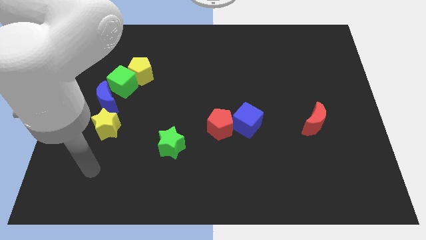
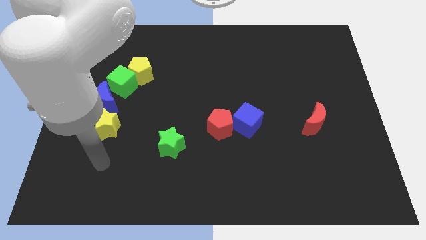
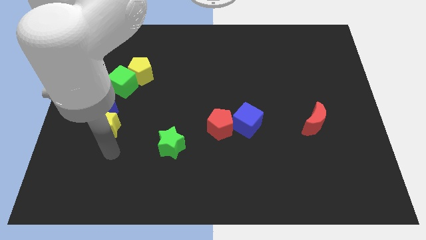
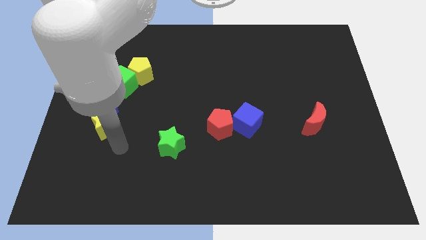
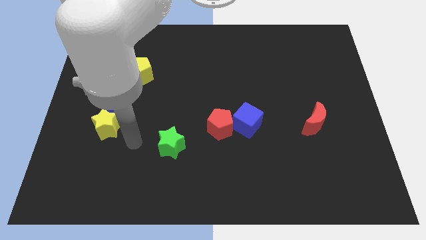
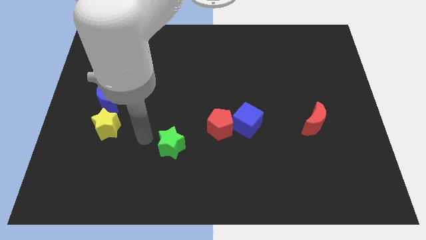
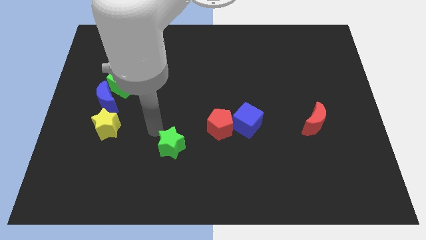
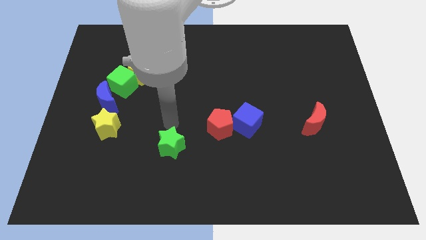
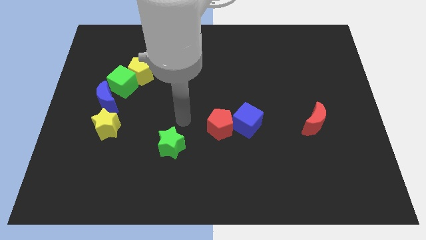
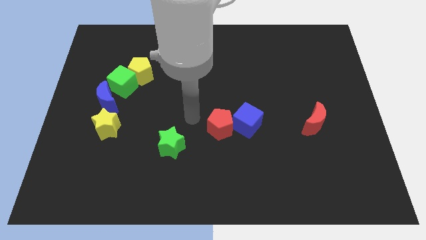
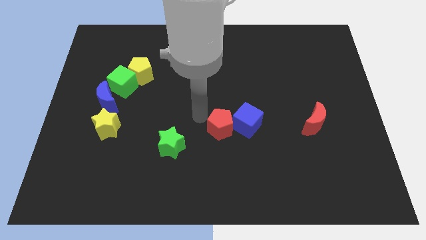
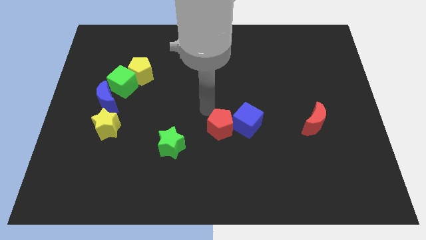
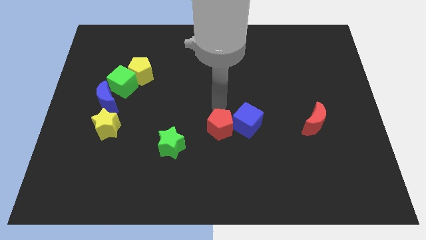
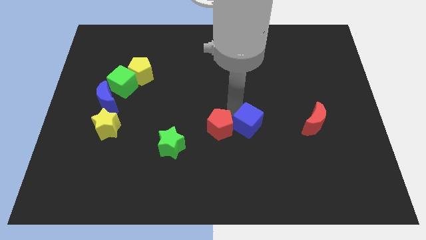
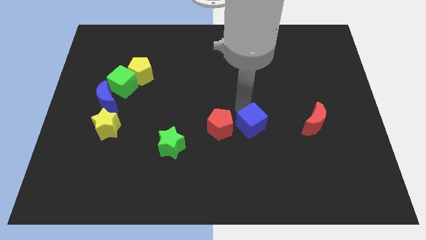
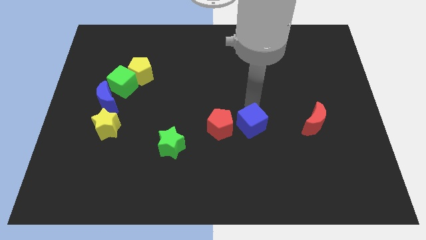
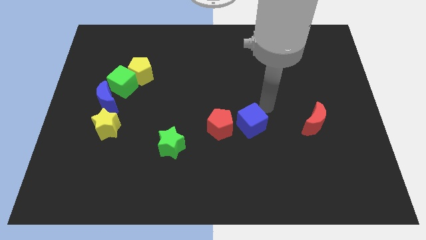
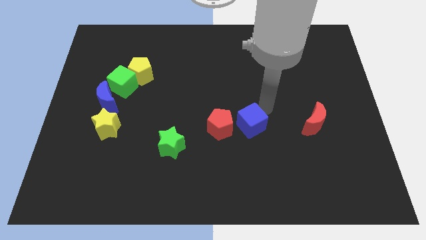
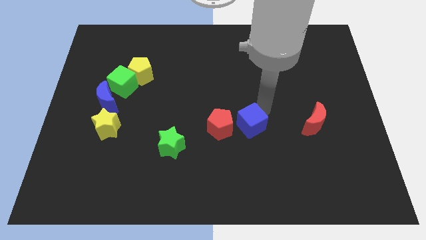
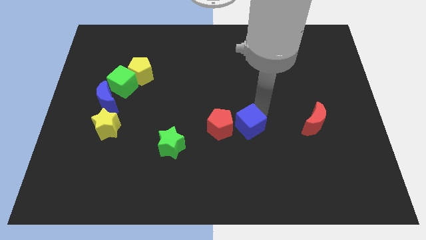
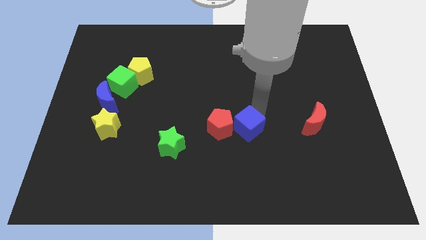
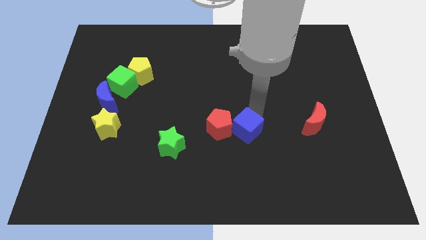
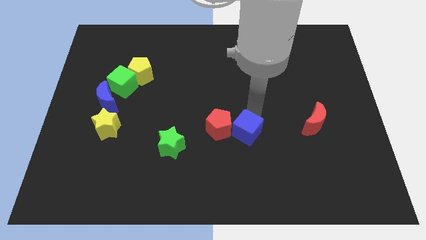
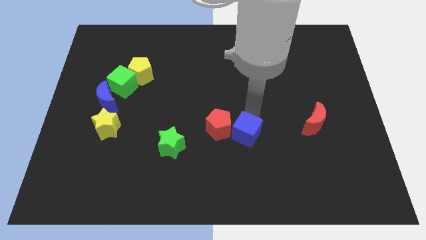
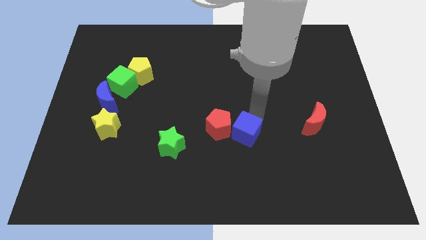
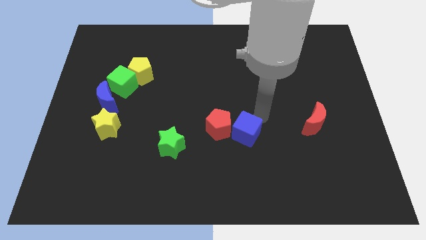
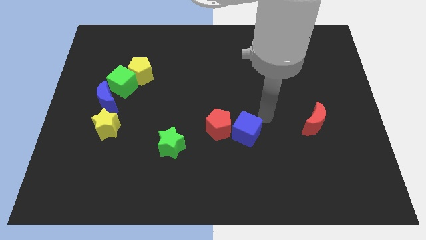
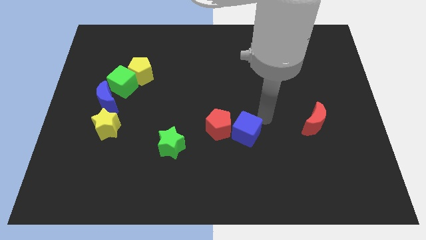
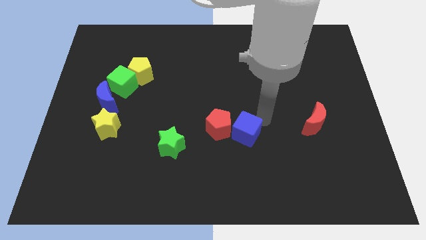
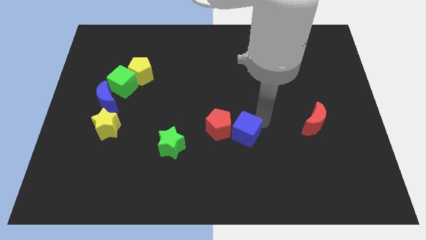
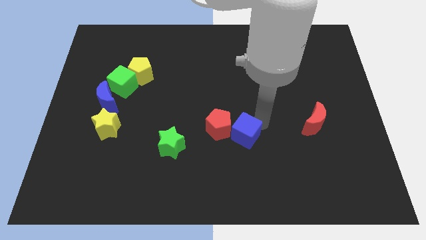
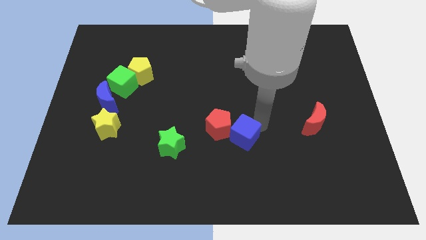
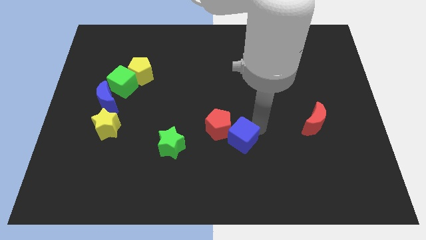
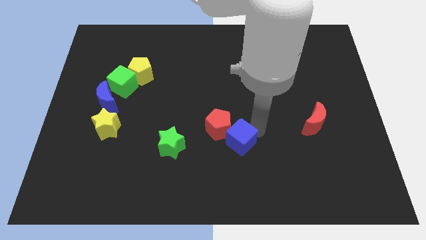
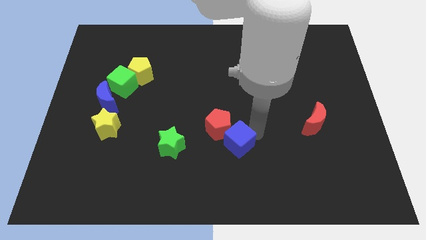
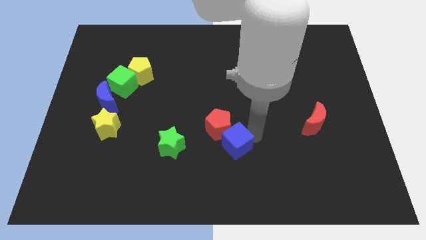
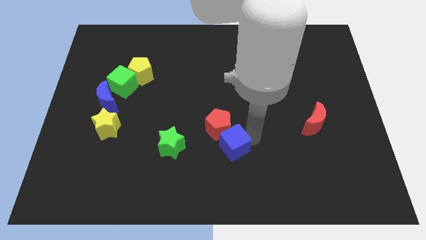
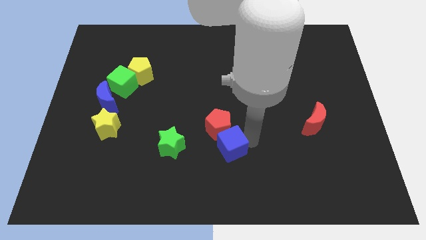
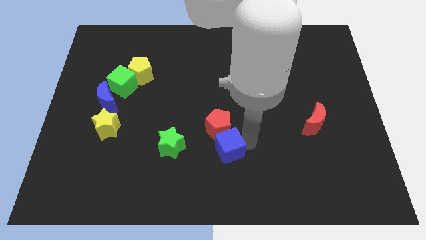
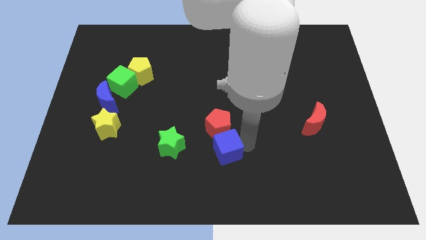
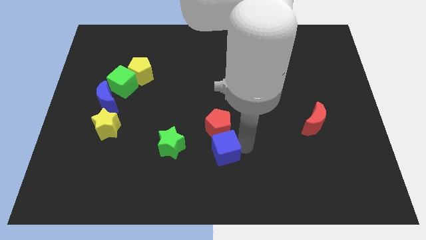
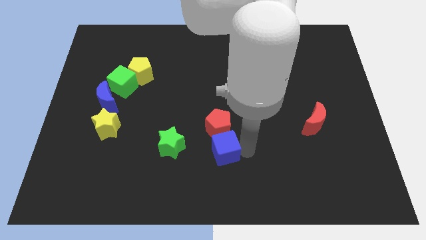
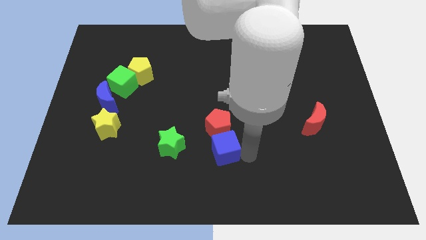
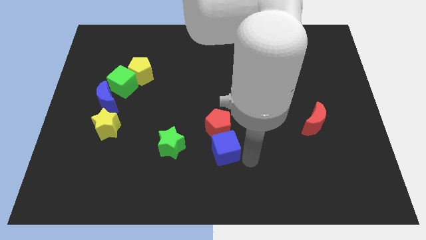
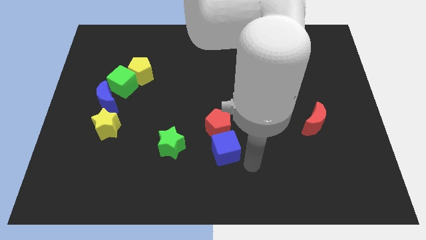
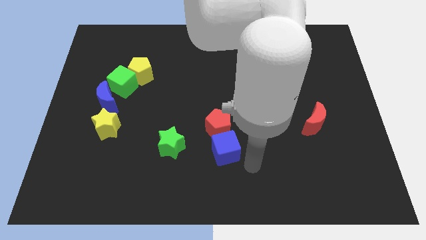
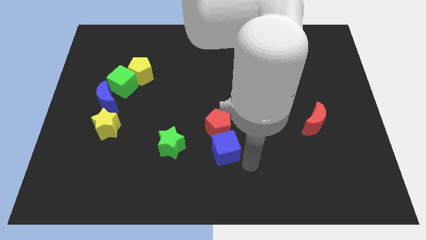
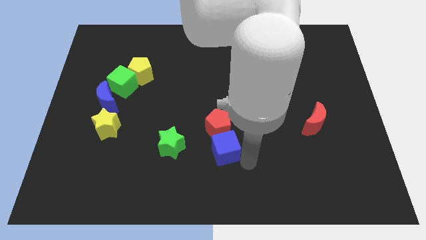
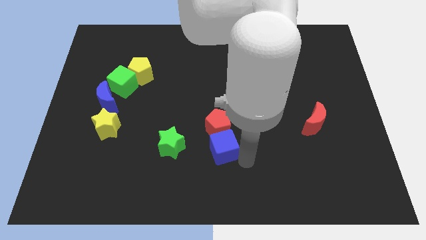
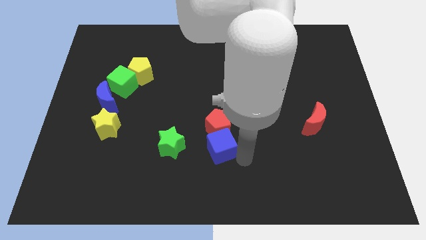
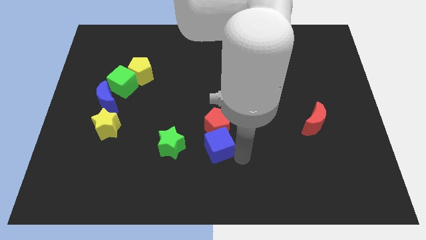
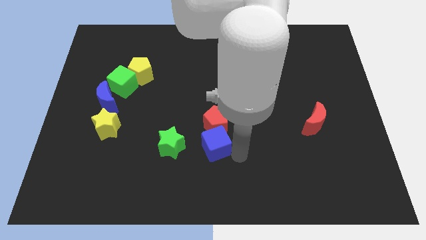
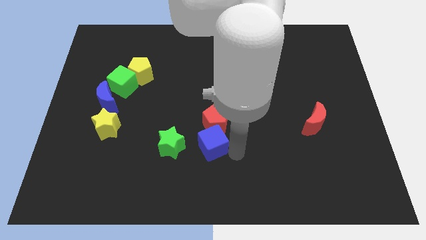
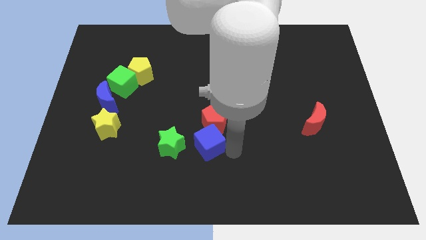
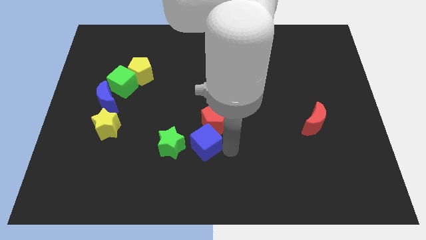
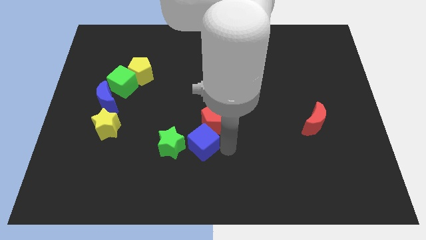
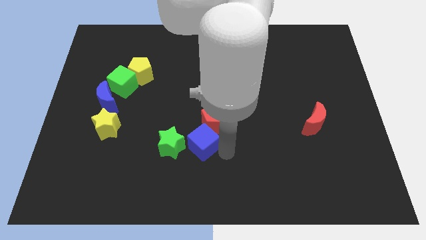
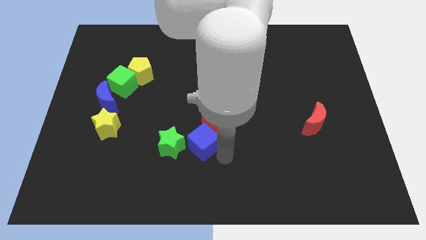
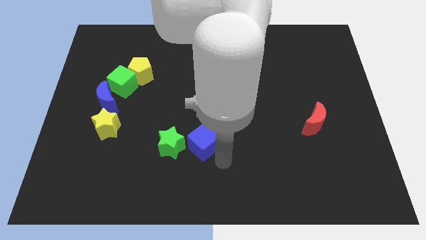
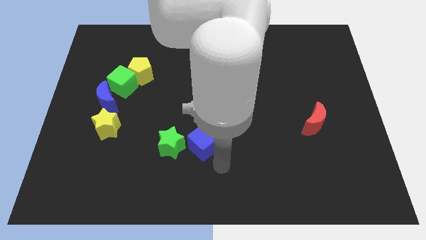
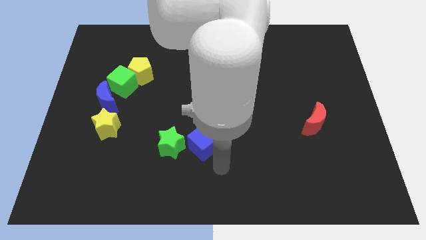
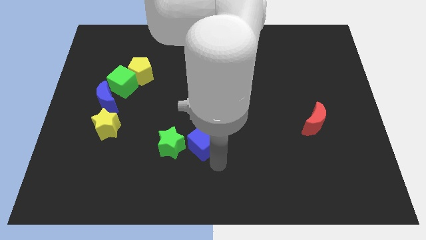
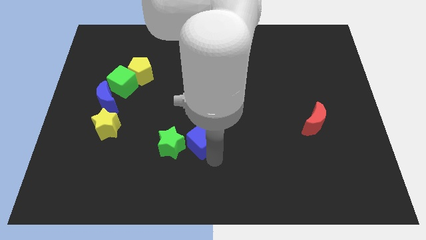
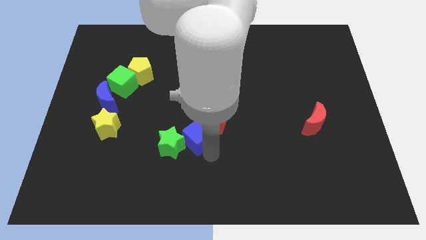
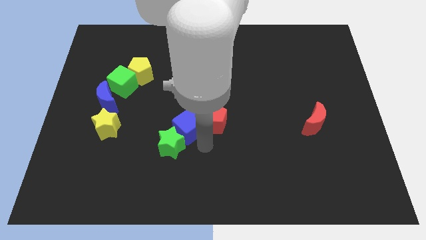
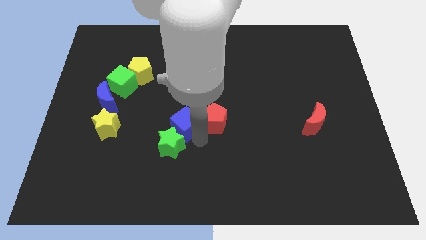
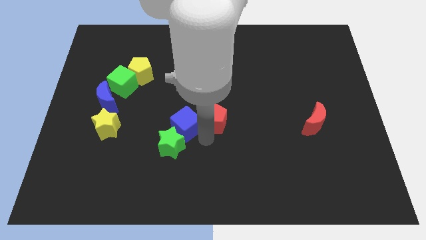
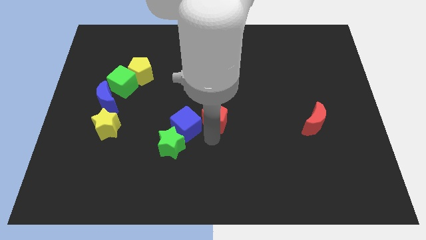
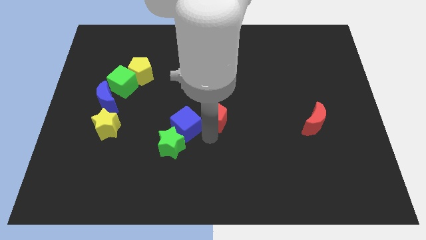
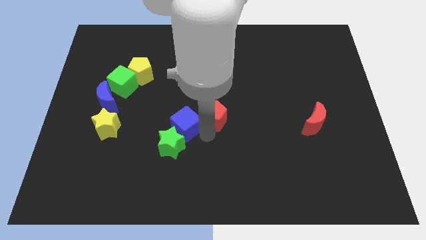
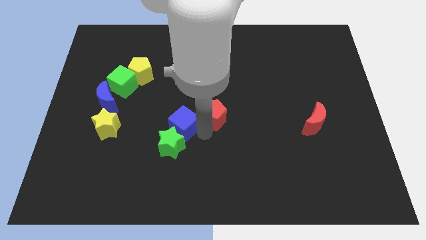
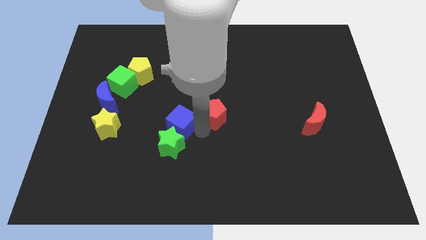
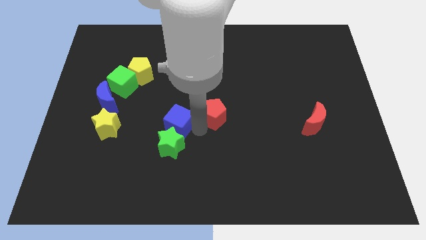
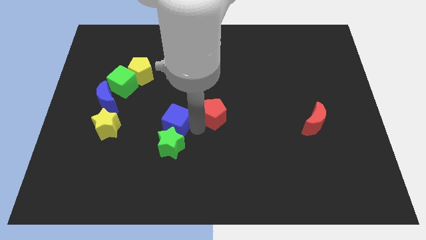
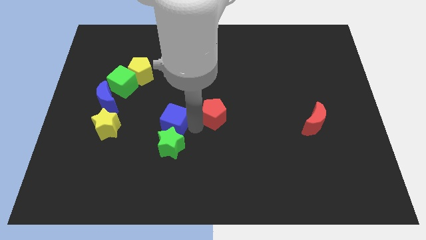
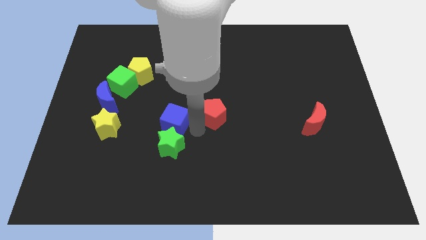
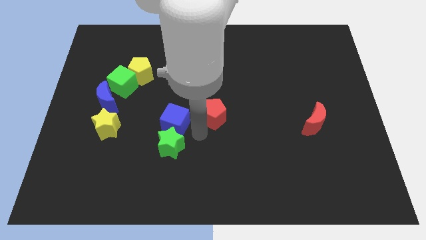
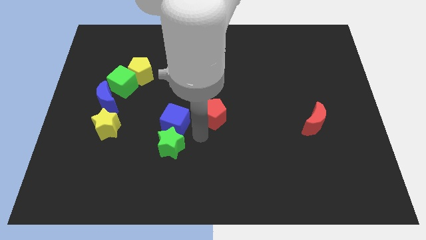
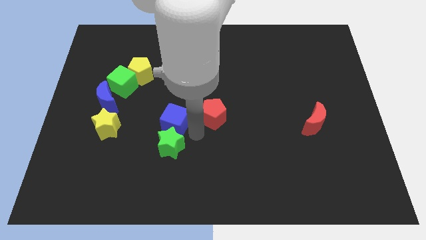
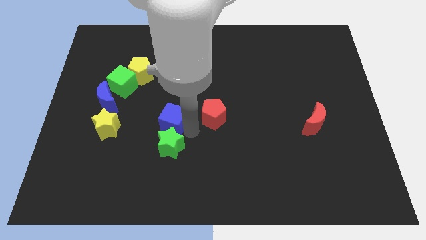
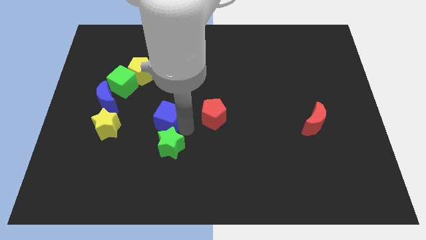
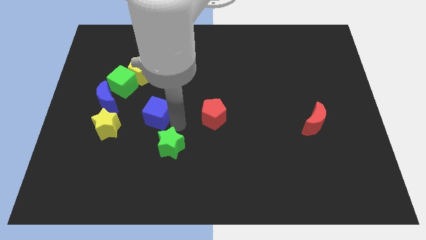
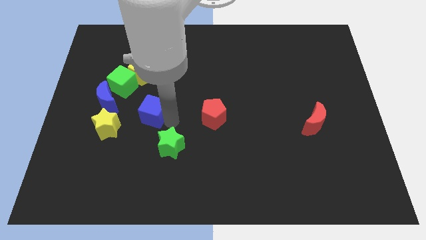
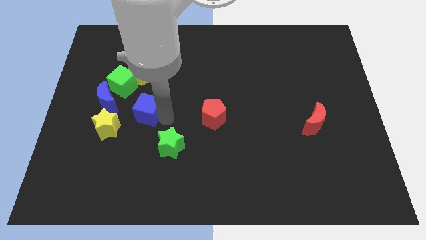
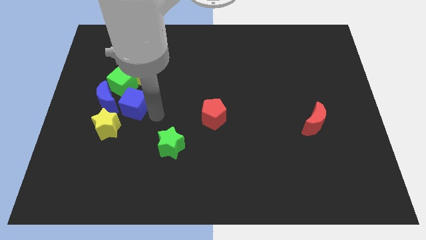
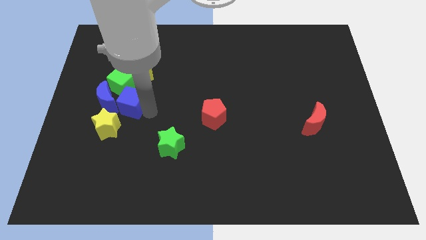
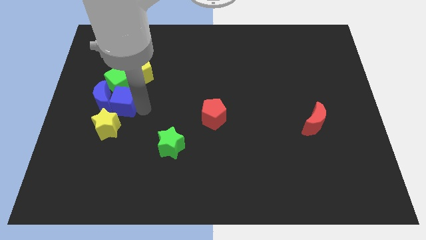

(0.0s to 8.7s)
push the blue cube to the blue moon
